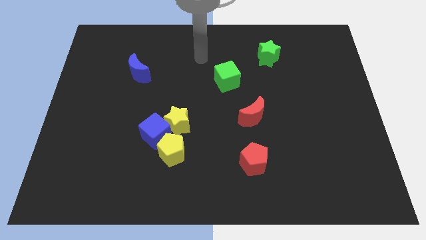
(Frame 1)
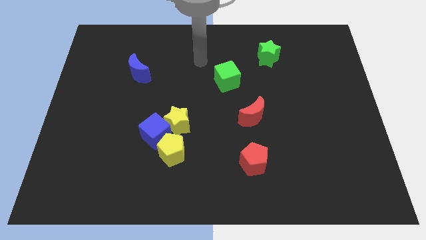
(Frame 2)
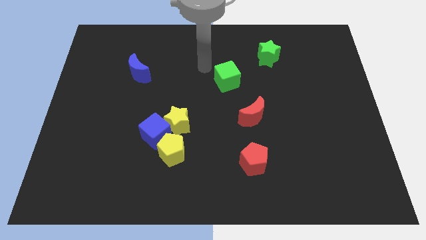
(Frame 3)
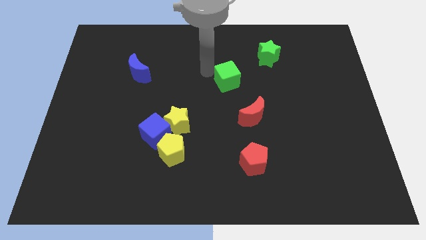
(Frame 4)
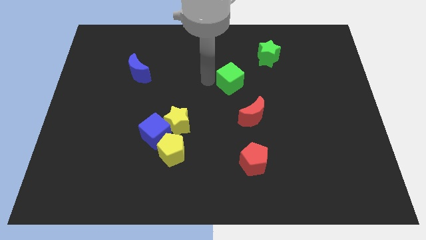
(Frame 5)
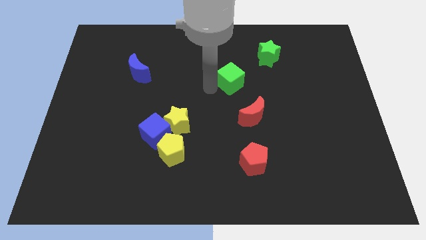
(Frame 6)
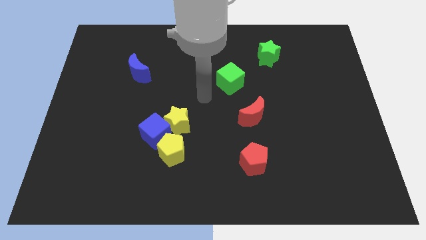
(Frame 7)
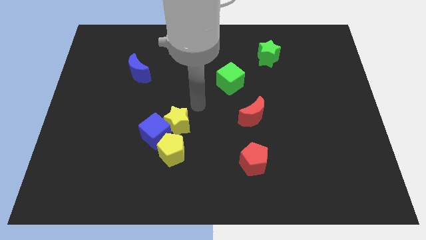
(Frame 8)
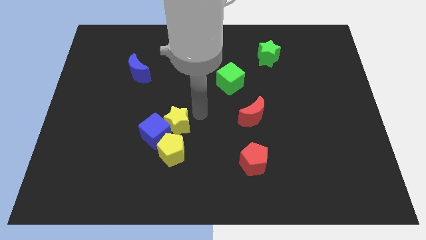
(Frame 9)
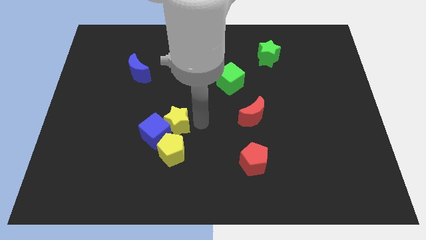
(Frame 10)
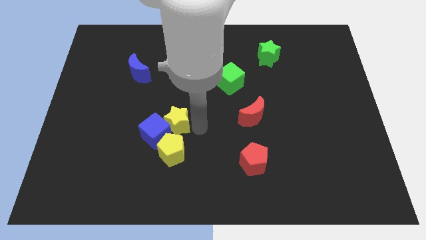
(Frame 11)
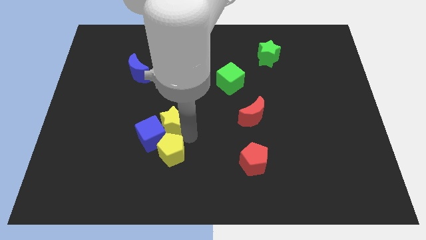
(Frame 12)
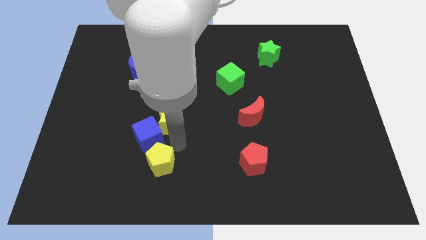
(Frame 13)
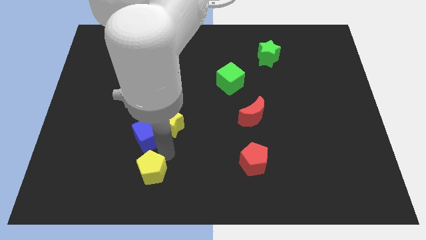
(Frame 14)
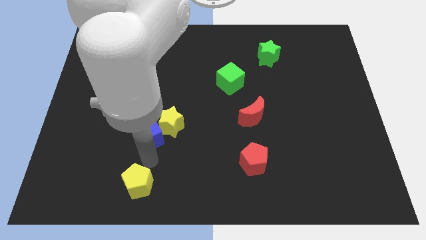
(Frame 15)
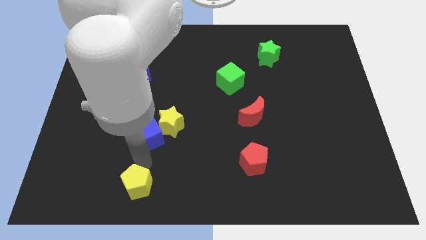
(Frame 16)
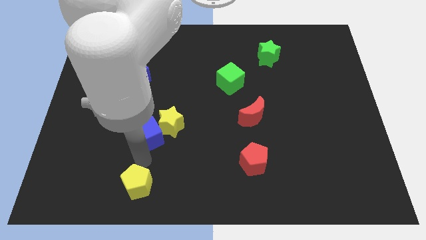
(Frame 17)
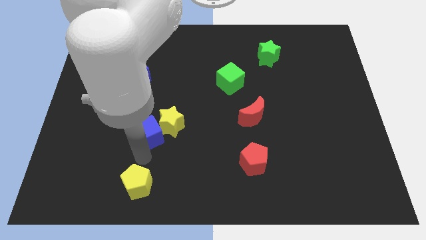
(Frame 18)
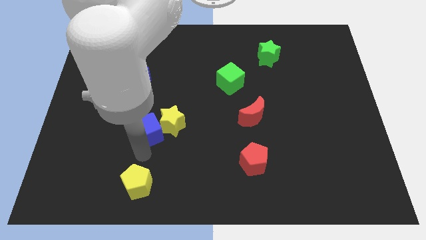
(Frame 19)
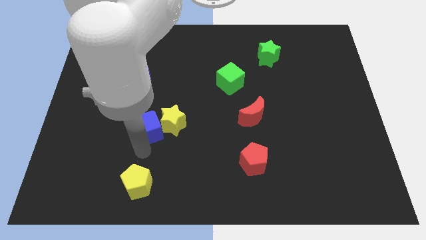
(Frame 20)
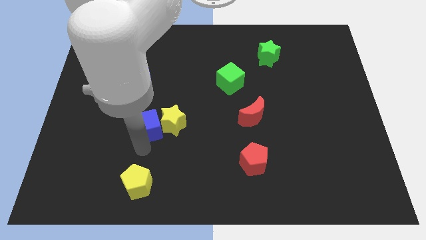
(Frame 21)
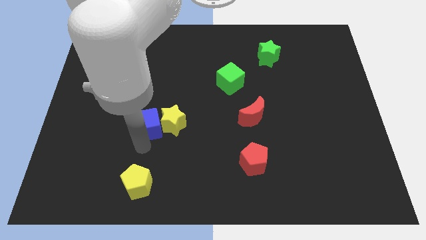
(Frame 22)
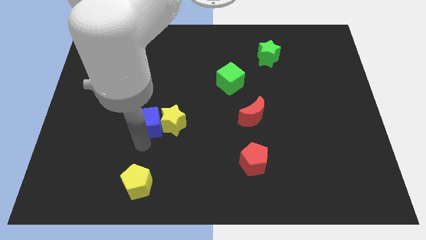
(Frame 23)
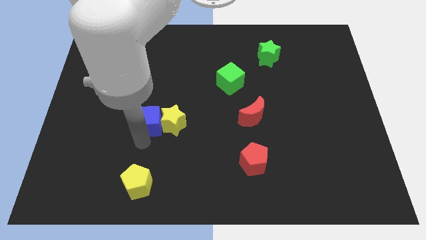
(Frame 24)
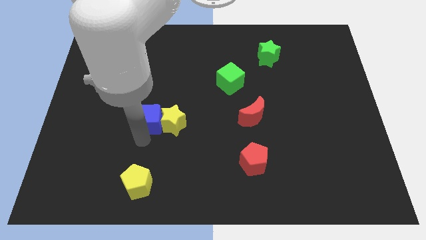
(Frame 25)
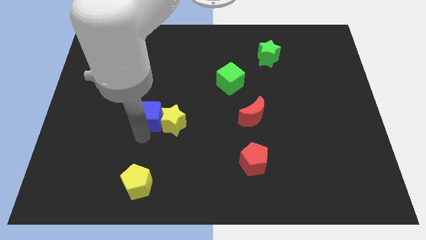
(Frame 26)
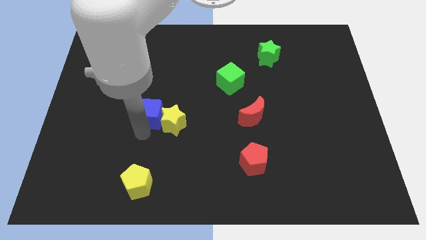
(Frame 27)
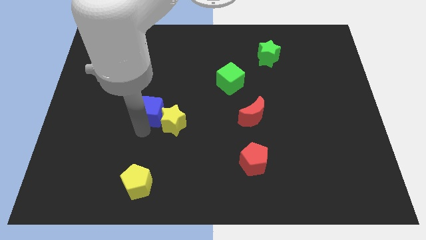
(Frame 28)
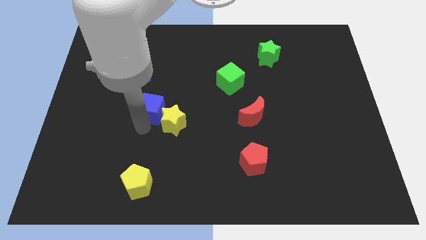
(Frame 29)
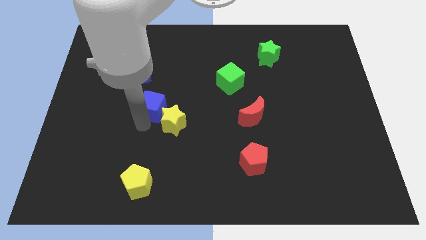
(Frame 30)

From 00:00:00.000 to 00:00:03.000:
slide the blue cube slightly upwards

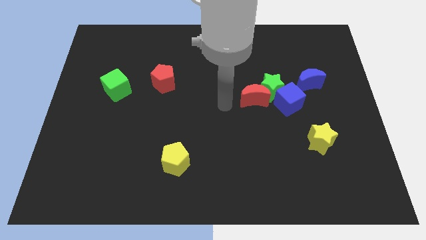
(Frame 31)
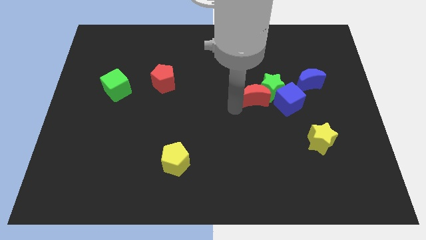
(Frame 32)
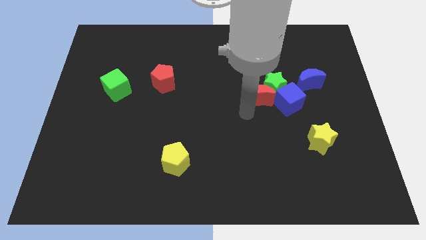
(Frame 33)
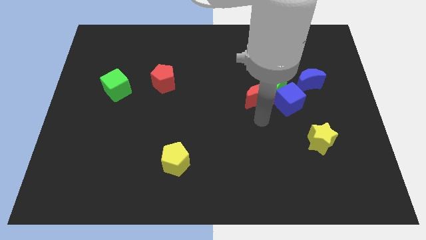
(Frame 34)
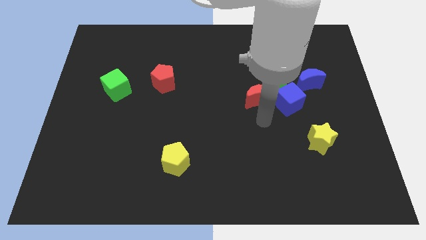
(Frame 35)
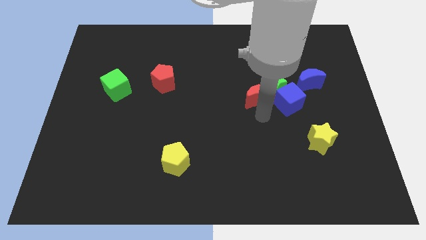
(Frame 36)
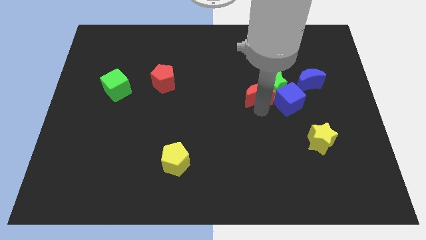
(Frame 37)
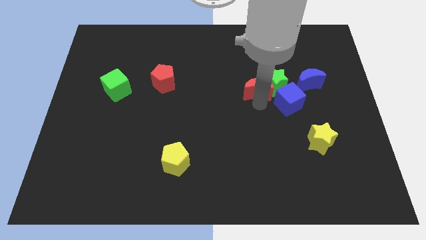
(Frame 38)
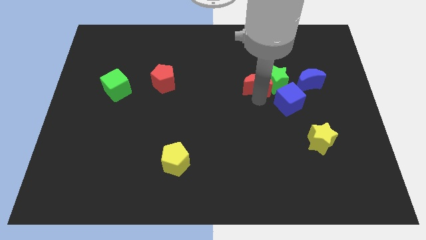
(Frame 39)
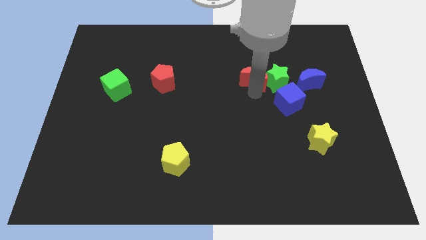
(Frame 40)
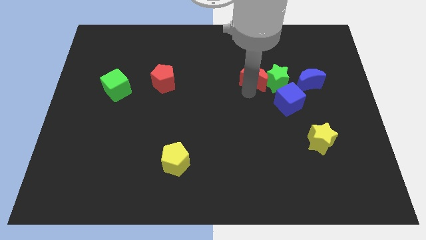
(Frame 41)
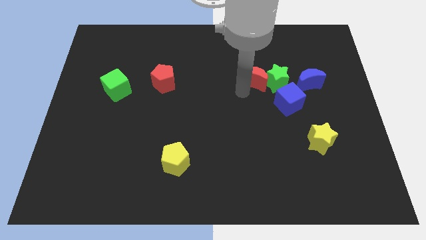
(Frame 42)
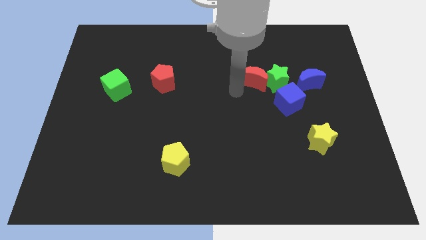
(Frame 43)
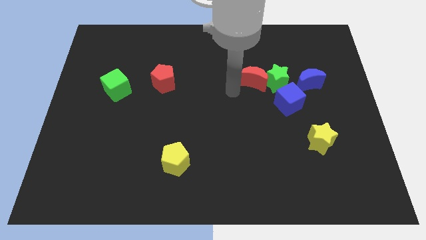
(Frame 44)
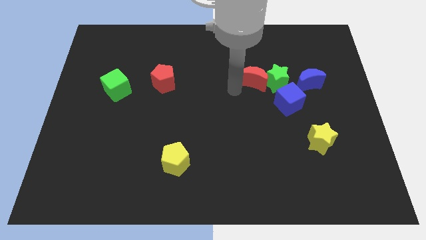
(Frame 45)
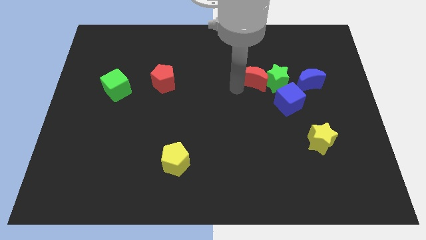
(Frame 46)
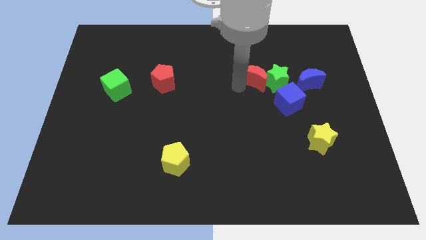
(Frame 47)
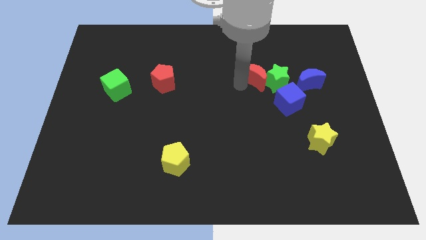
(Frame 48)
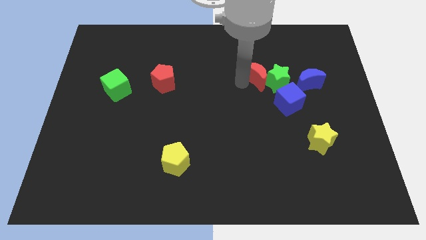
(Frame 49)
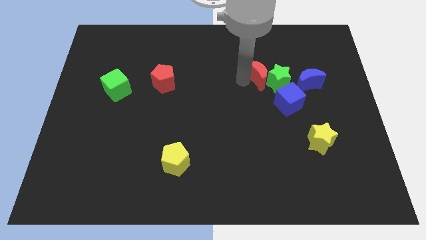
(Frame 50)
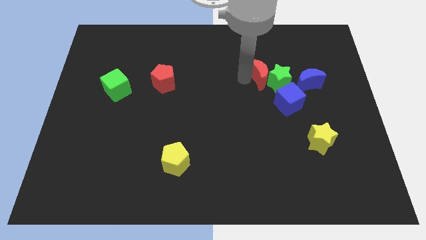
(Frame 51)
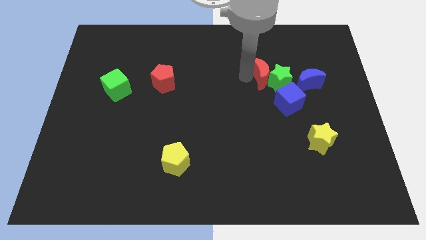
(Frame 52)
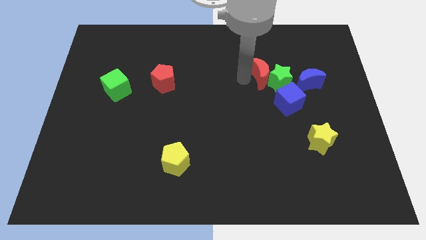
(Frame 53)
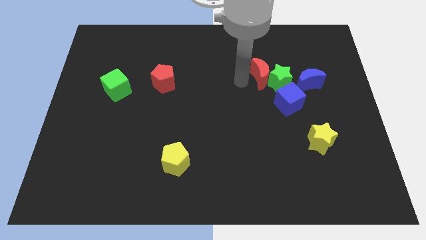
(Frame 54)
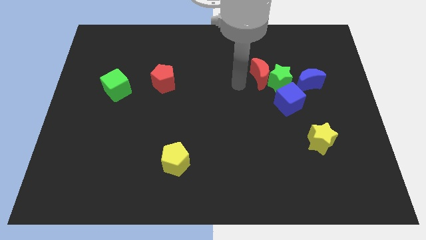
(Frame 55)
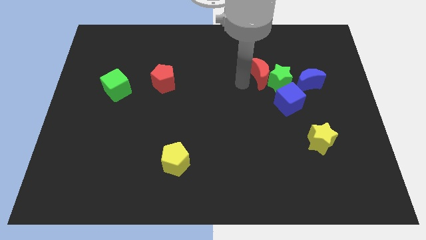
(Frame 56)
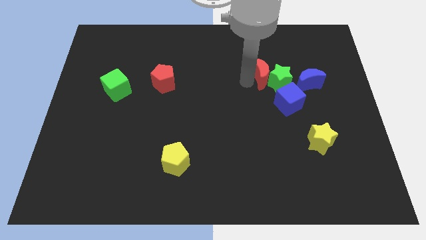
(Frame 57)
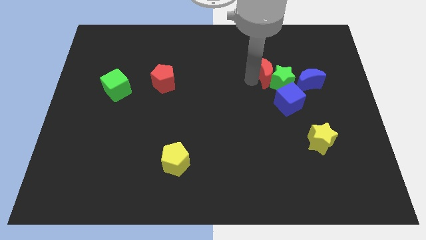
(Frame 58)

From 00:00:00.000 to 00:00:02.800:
move the red moon up and then to the right somewhat

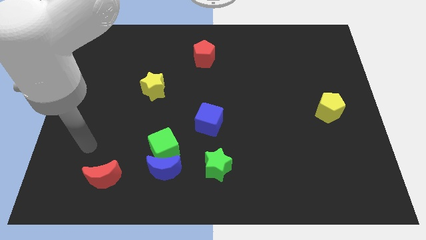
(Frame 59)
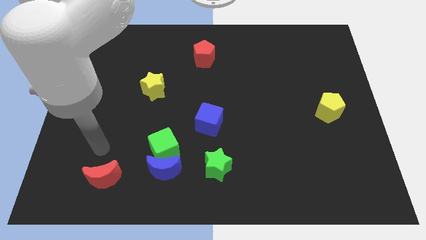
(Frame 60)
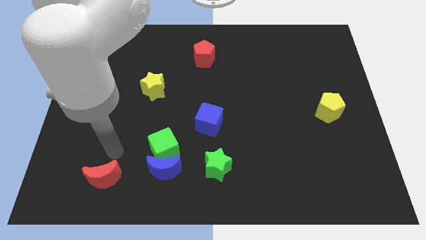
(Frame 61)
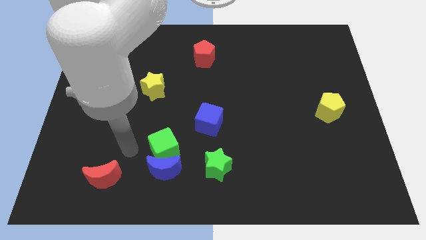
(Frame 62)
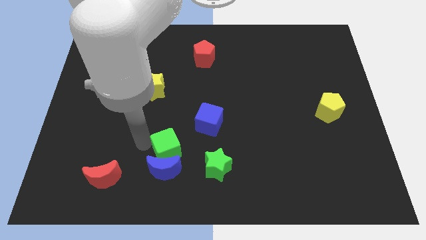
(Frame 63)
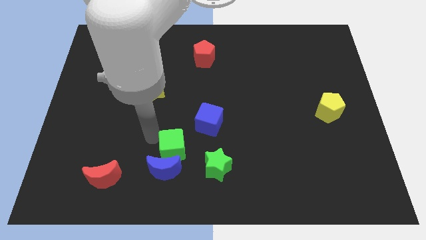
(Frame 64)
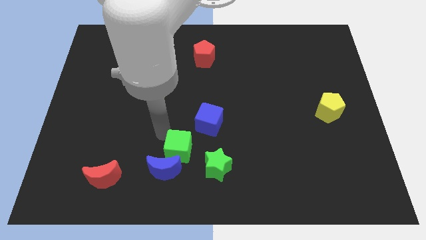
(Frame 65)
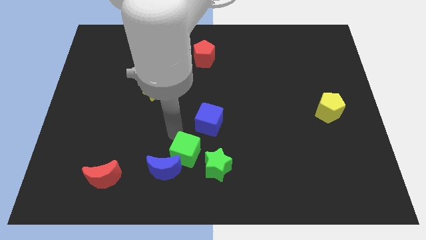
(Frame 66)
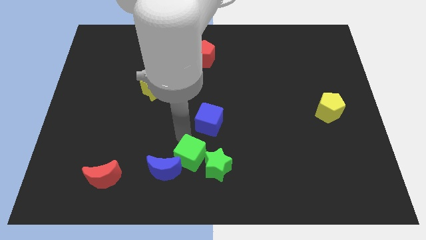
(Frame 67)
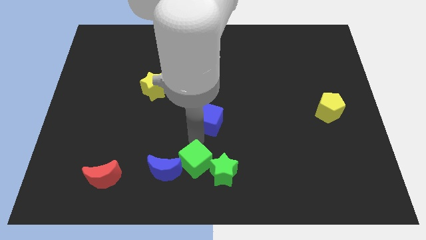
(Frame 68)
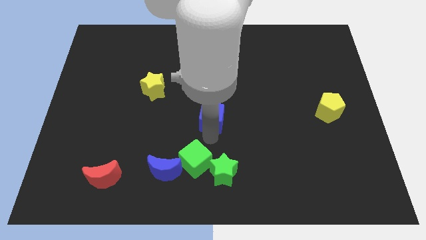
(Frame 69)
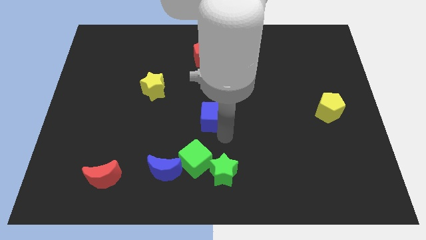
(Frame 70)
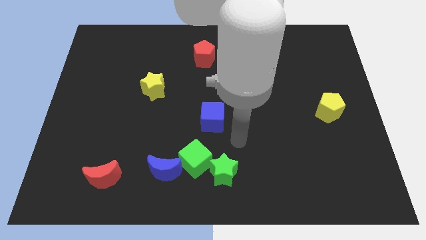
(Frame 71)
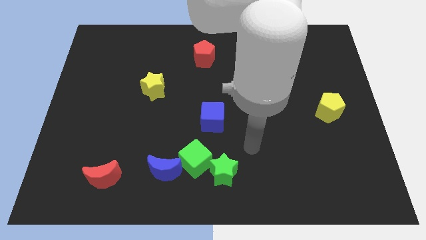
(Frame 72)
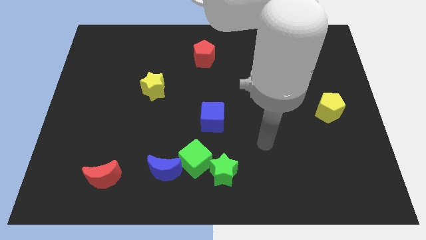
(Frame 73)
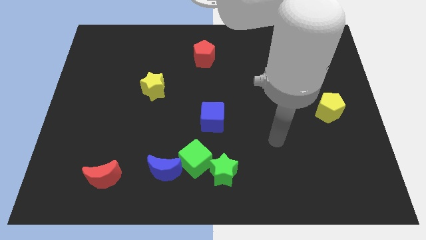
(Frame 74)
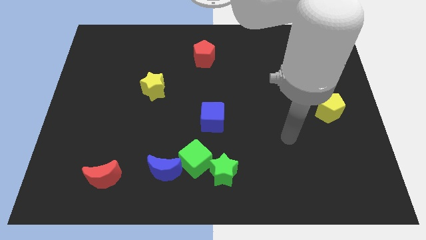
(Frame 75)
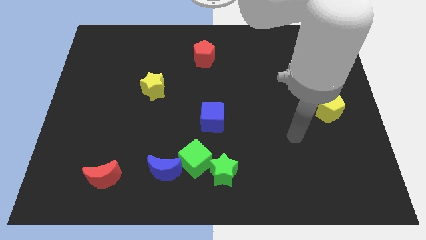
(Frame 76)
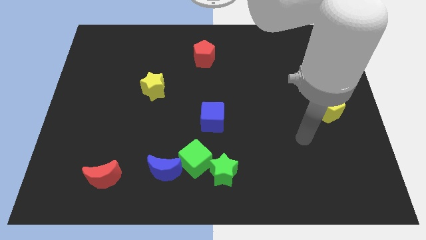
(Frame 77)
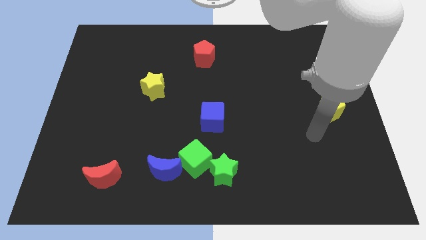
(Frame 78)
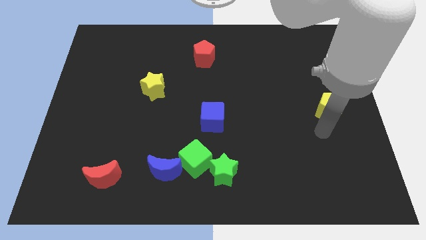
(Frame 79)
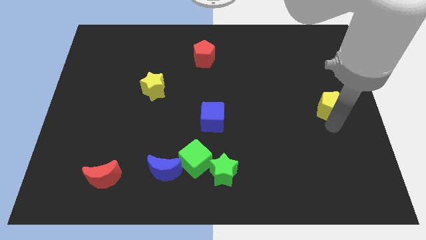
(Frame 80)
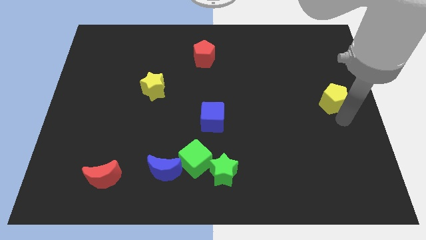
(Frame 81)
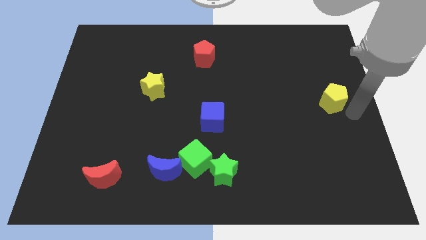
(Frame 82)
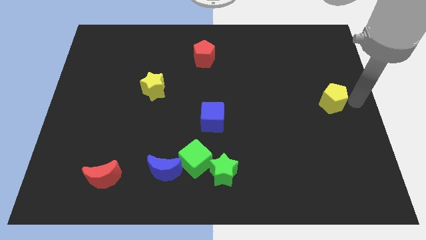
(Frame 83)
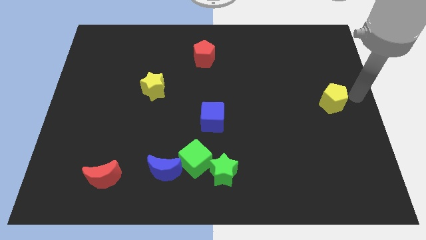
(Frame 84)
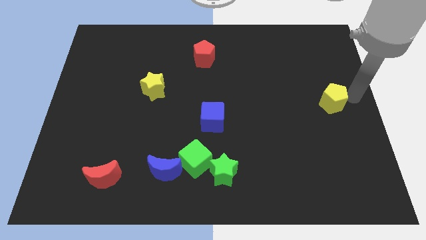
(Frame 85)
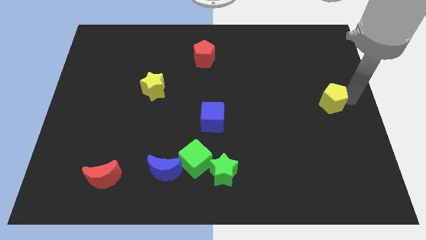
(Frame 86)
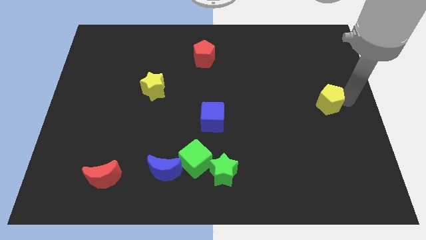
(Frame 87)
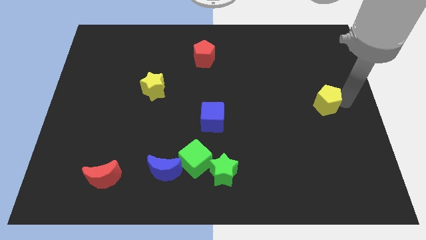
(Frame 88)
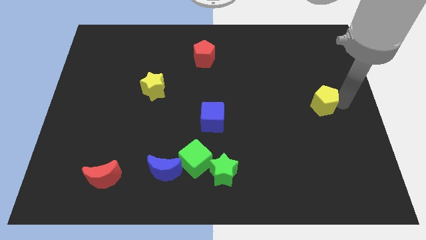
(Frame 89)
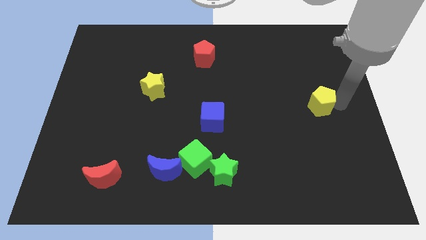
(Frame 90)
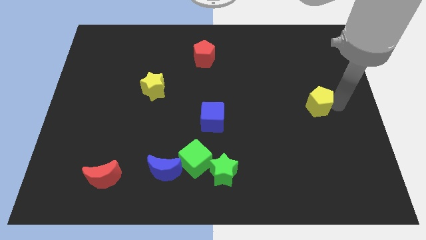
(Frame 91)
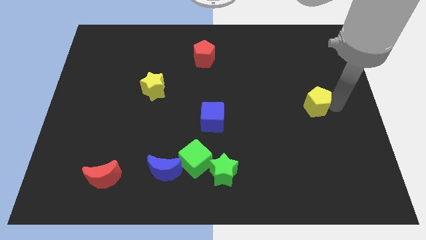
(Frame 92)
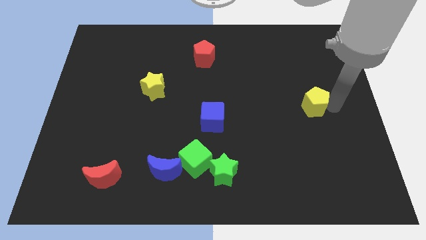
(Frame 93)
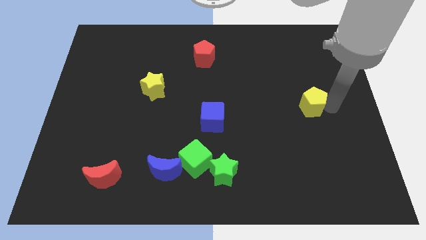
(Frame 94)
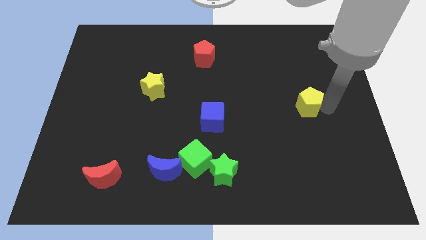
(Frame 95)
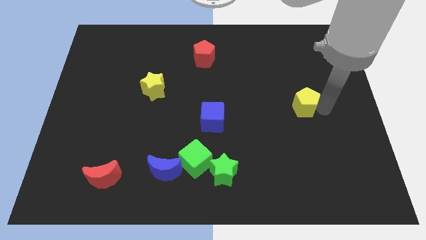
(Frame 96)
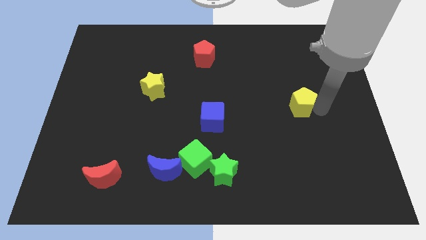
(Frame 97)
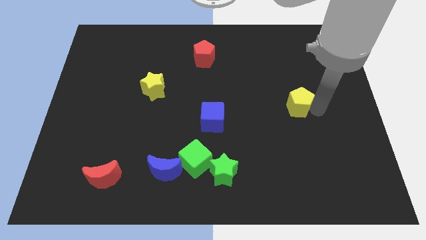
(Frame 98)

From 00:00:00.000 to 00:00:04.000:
slide the yellow pentagon a little to the left
